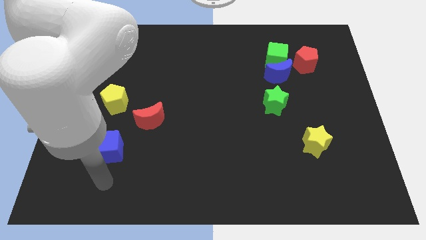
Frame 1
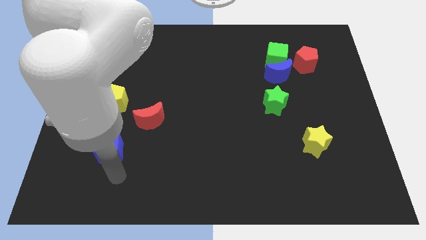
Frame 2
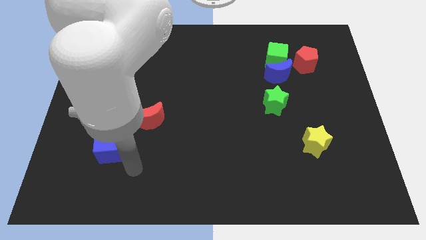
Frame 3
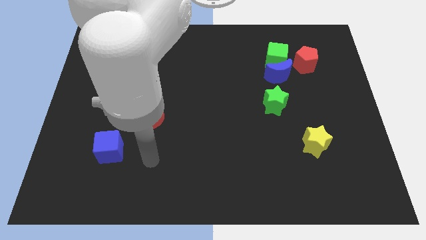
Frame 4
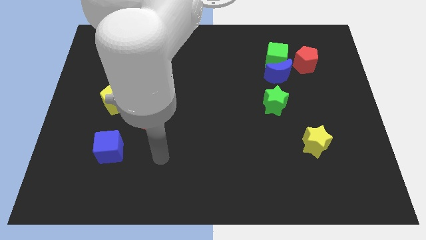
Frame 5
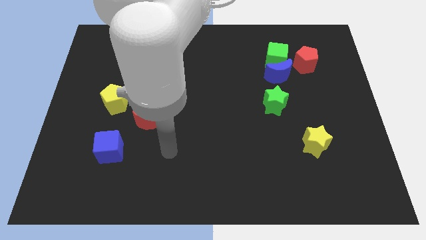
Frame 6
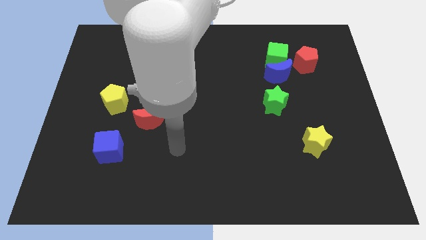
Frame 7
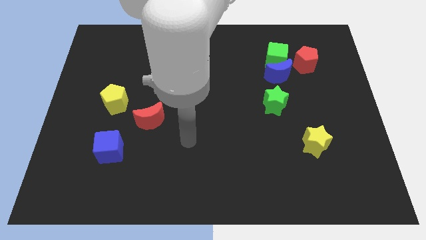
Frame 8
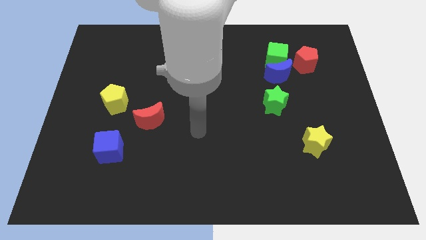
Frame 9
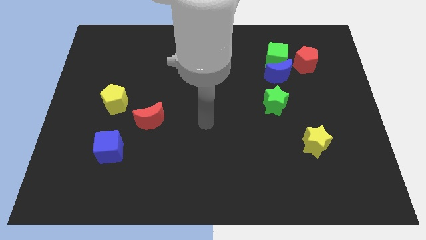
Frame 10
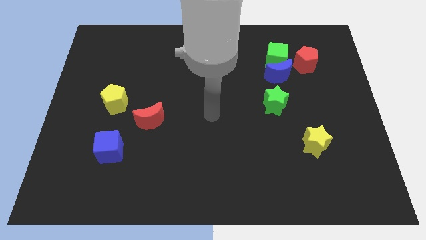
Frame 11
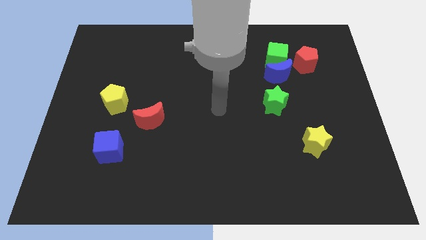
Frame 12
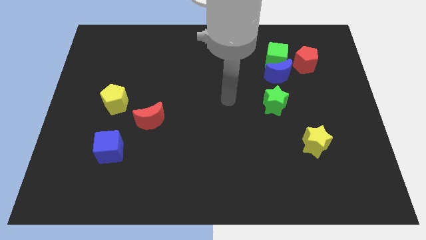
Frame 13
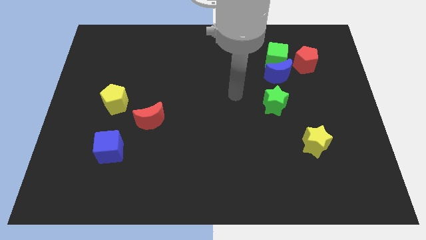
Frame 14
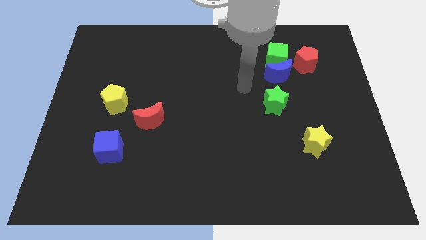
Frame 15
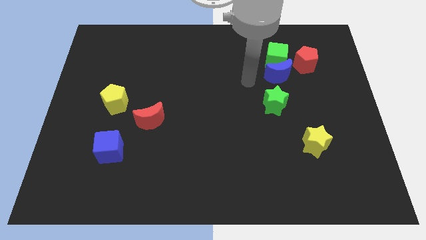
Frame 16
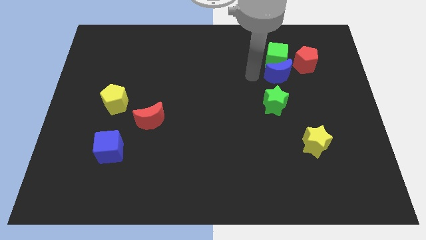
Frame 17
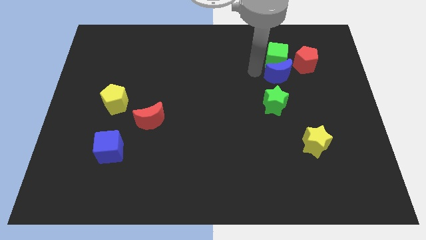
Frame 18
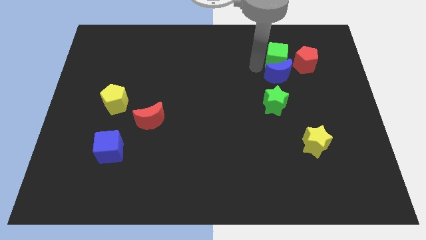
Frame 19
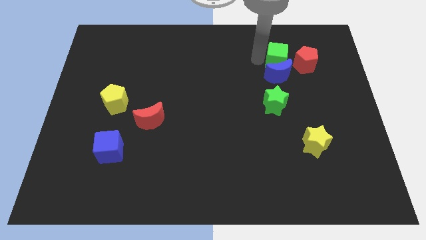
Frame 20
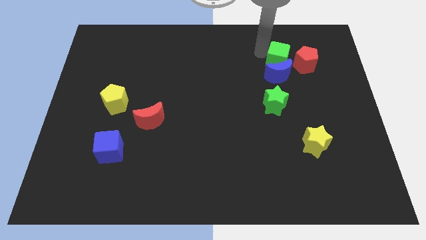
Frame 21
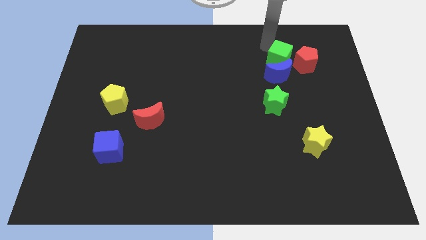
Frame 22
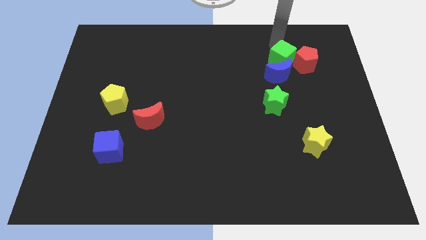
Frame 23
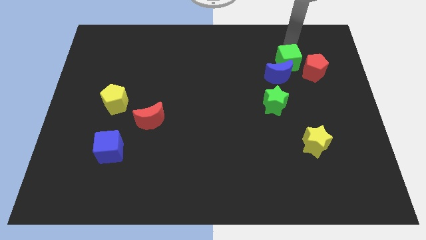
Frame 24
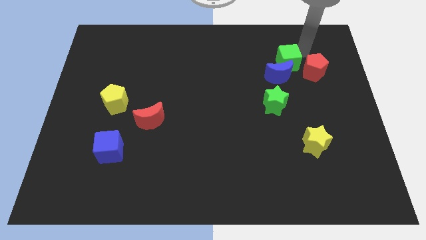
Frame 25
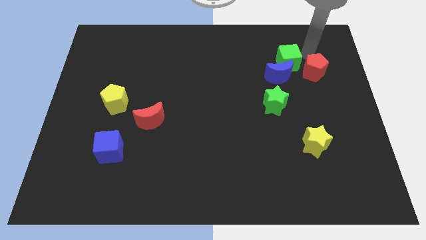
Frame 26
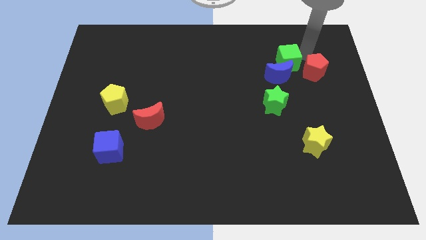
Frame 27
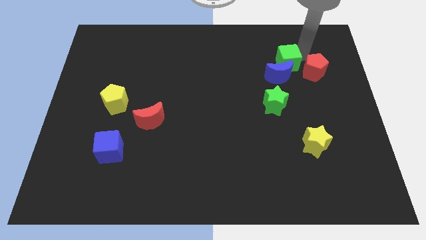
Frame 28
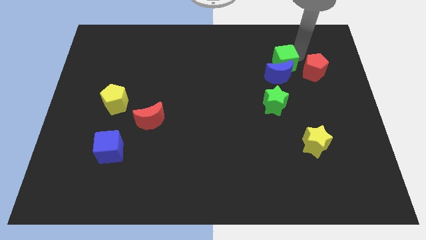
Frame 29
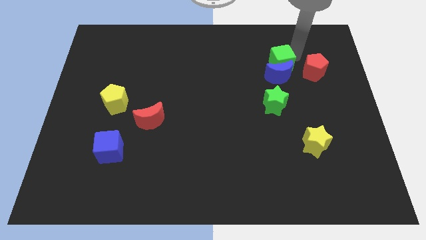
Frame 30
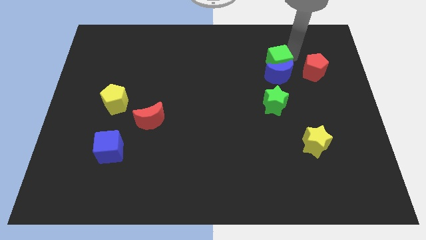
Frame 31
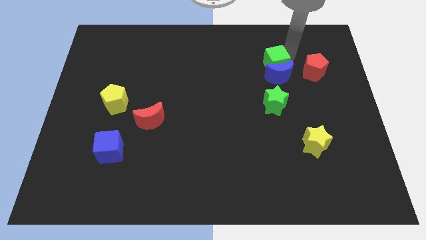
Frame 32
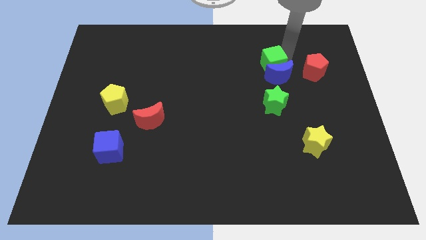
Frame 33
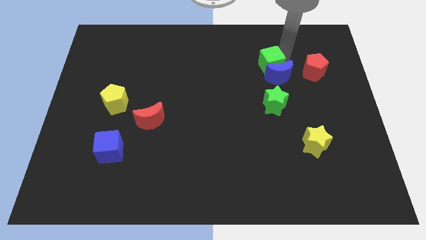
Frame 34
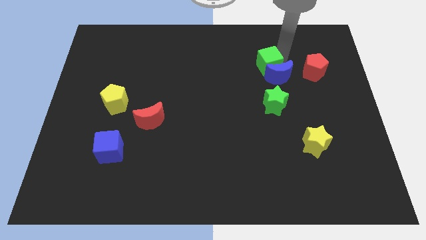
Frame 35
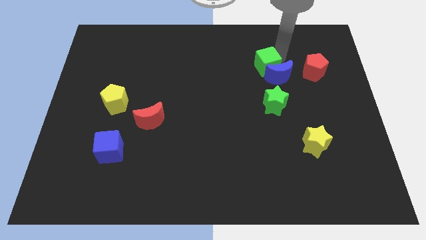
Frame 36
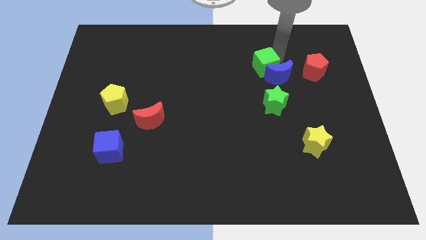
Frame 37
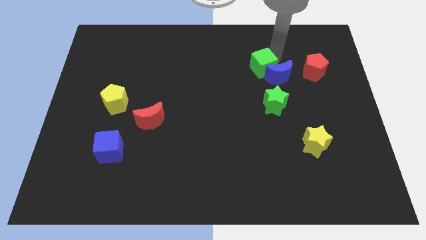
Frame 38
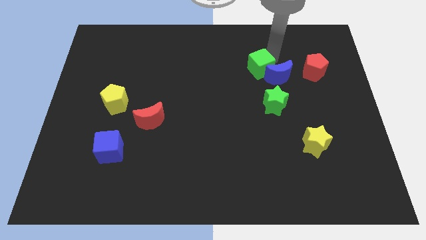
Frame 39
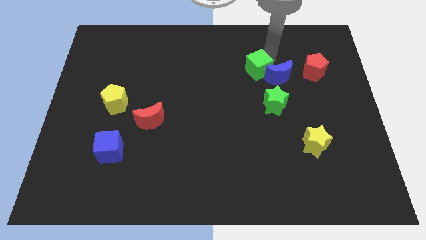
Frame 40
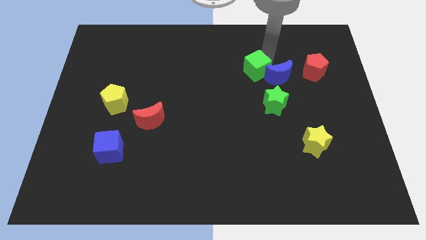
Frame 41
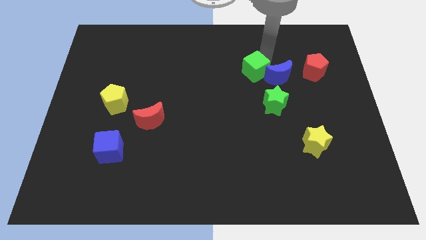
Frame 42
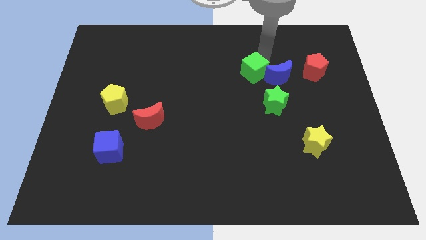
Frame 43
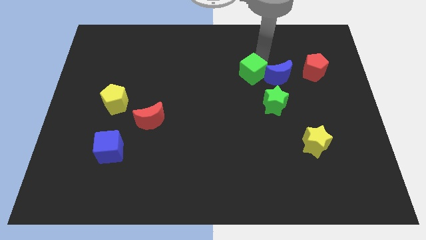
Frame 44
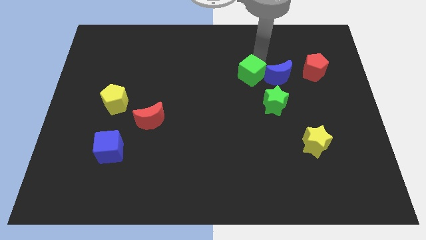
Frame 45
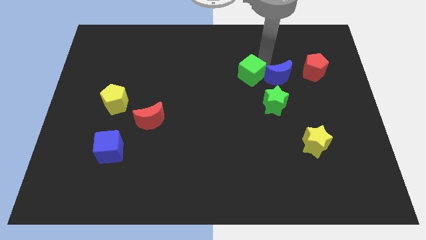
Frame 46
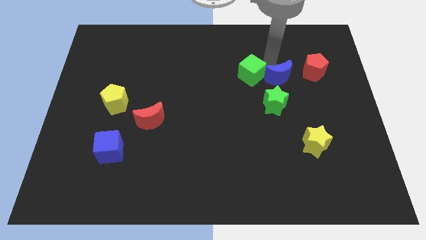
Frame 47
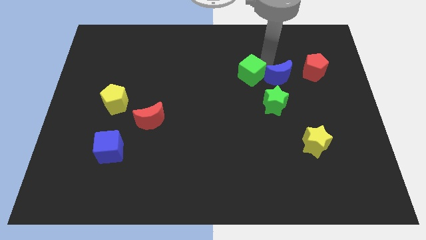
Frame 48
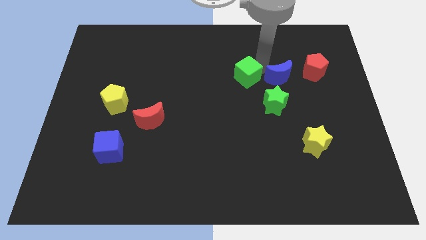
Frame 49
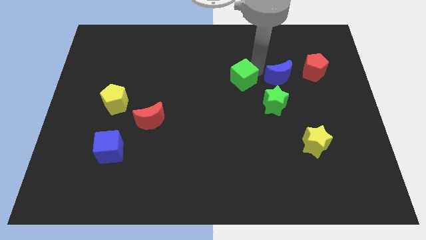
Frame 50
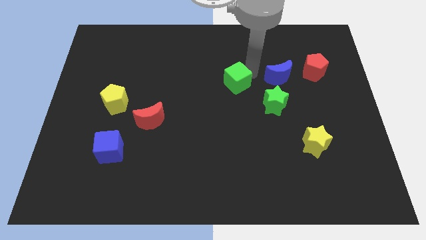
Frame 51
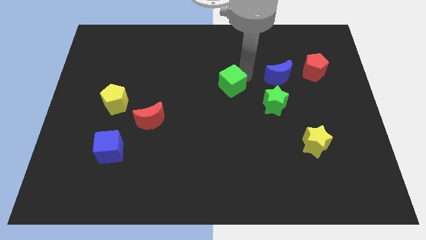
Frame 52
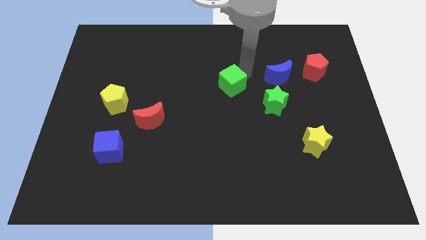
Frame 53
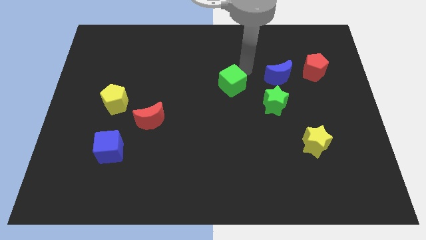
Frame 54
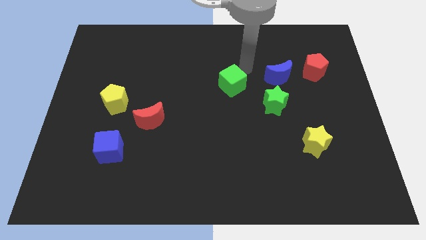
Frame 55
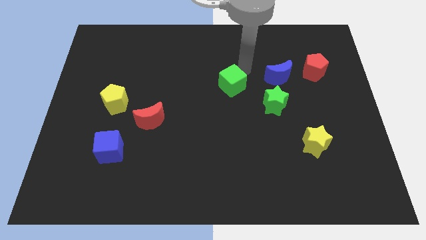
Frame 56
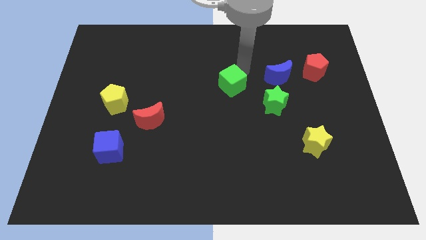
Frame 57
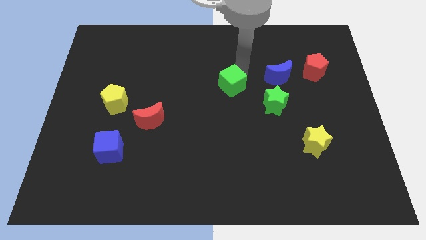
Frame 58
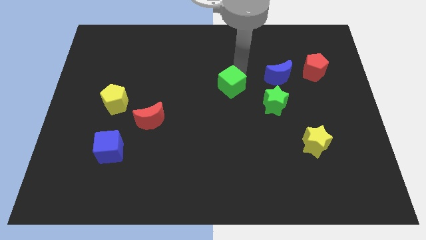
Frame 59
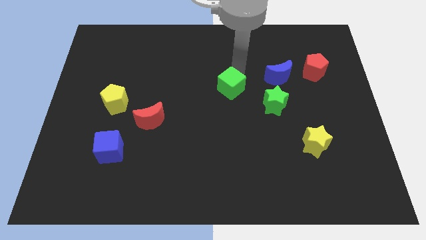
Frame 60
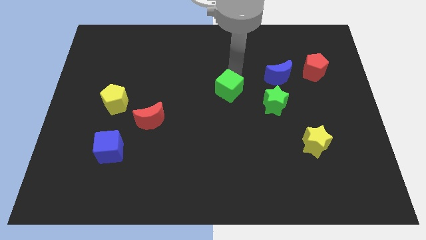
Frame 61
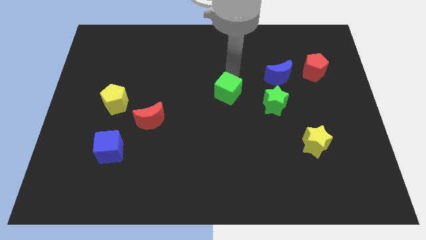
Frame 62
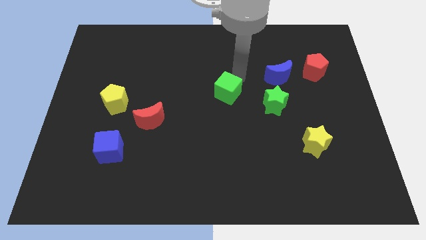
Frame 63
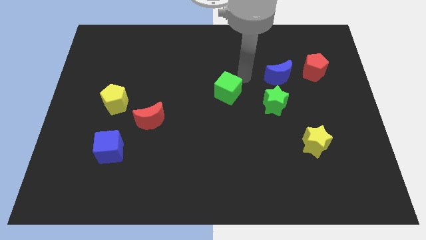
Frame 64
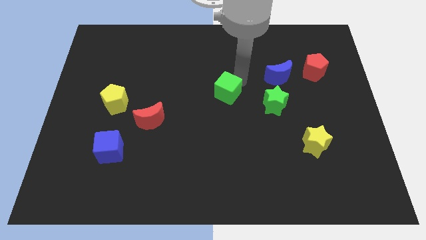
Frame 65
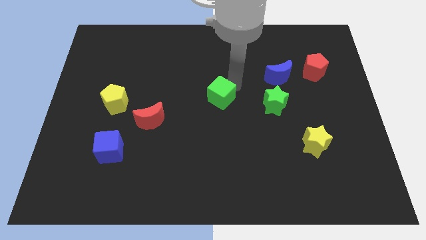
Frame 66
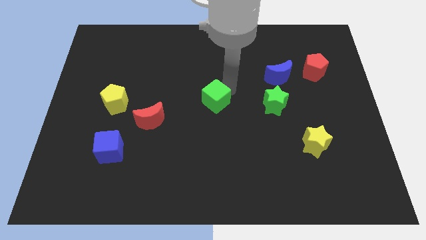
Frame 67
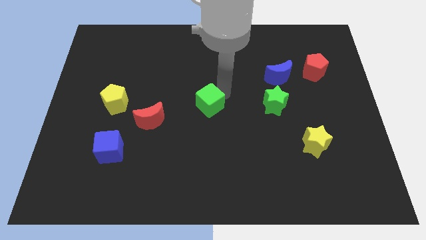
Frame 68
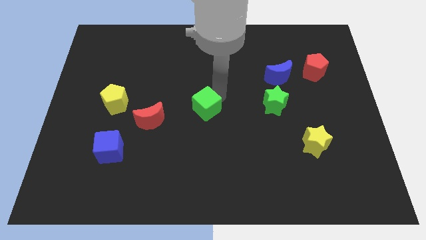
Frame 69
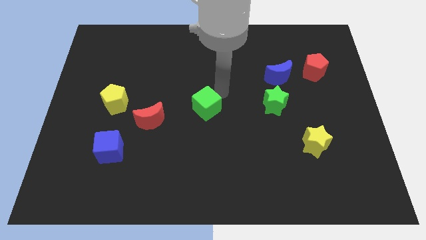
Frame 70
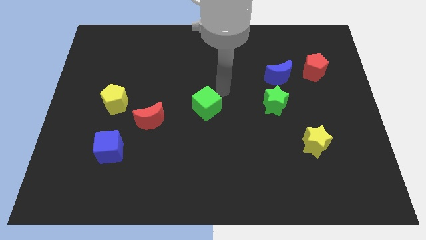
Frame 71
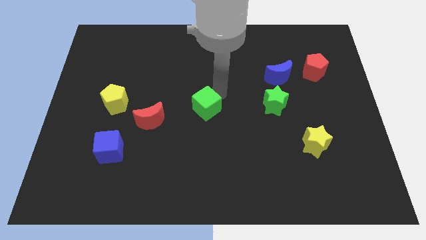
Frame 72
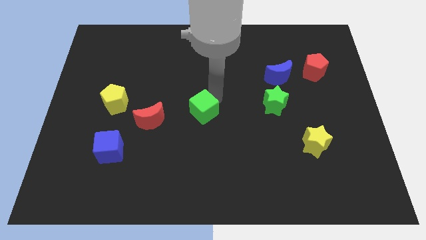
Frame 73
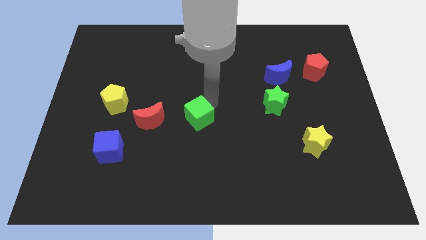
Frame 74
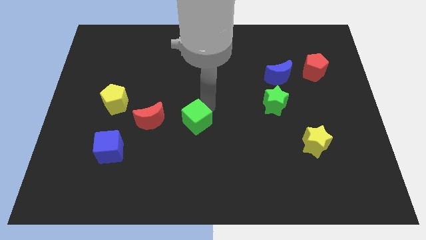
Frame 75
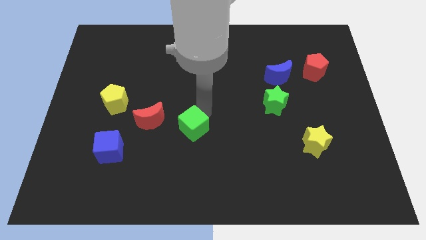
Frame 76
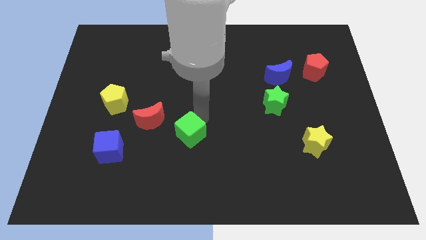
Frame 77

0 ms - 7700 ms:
move the green cube to the bottom right side of the red moon
